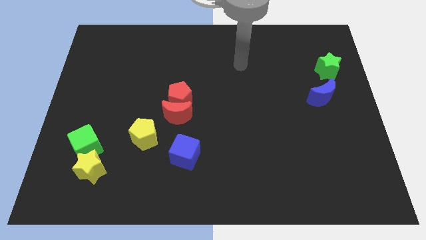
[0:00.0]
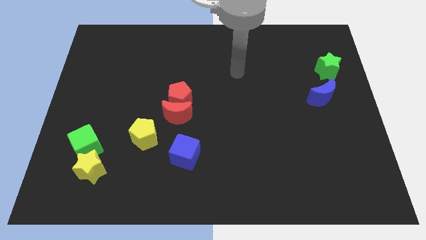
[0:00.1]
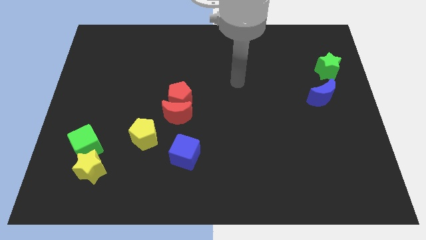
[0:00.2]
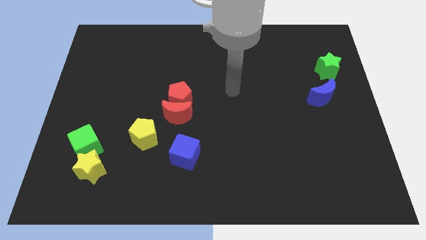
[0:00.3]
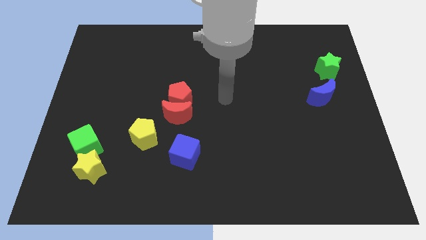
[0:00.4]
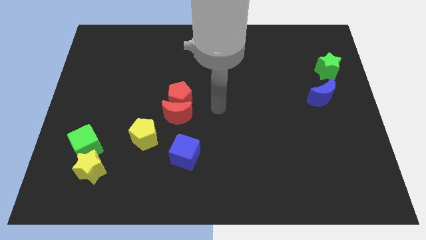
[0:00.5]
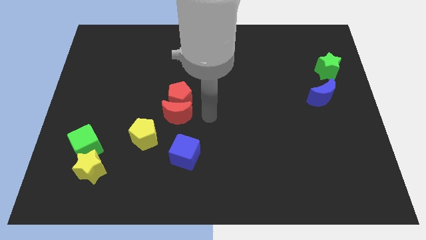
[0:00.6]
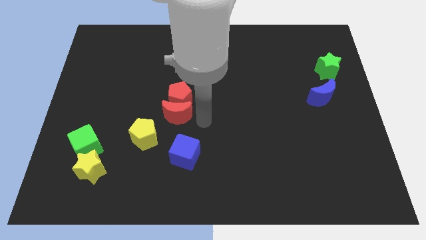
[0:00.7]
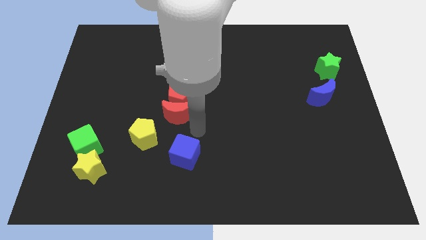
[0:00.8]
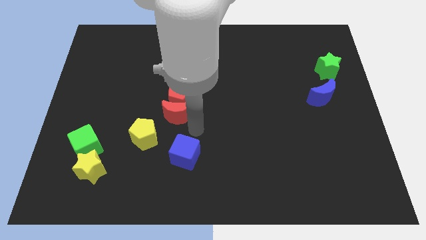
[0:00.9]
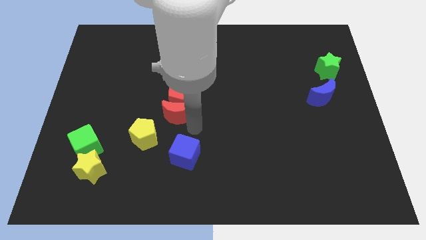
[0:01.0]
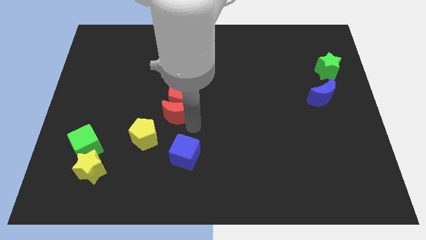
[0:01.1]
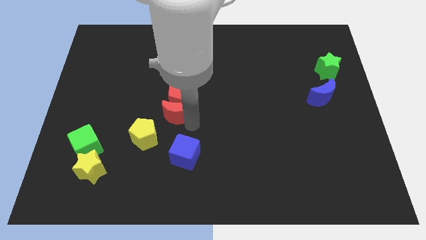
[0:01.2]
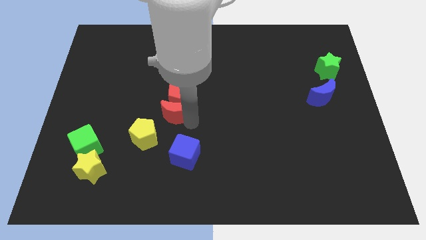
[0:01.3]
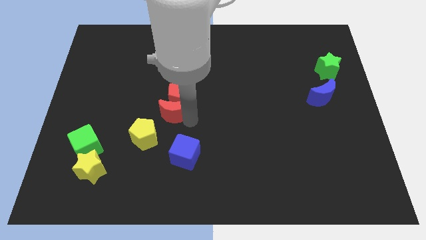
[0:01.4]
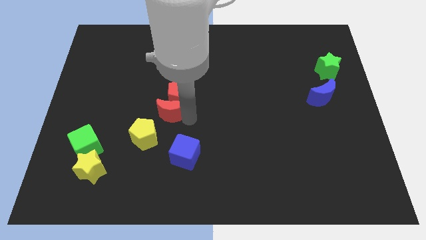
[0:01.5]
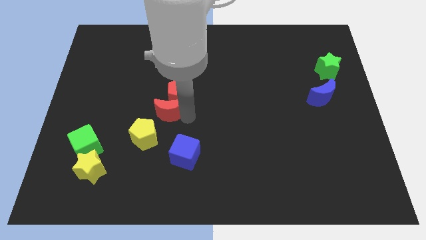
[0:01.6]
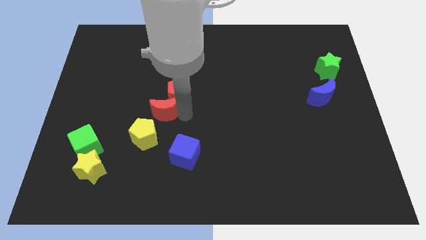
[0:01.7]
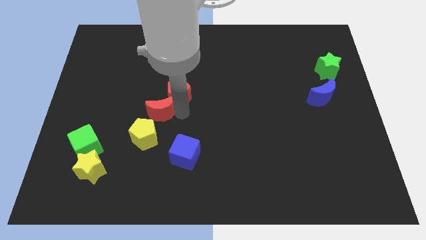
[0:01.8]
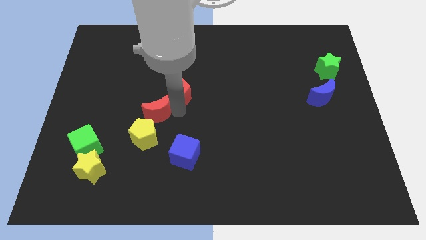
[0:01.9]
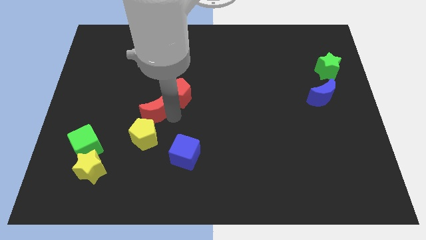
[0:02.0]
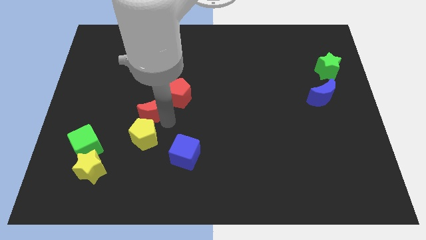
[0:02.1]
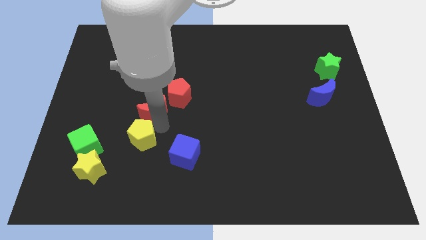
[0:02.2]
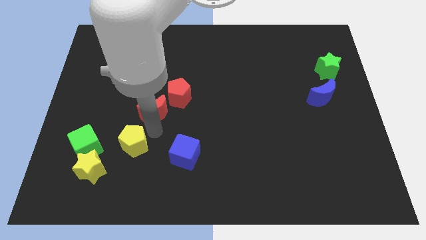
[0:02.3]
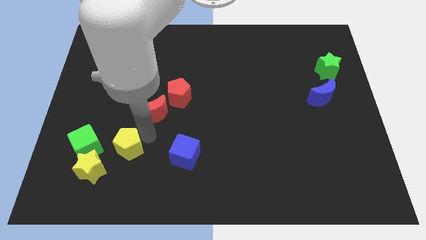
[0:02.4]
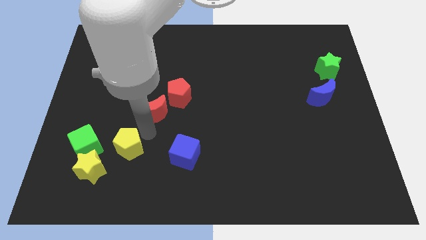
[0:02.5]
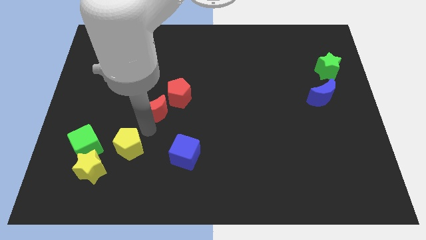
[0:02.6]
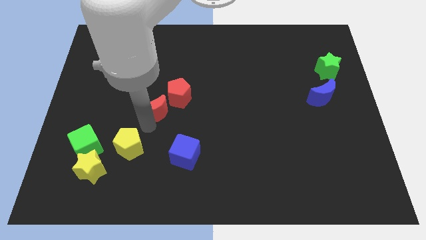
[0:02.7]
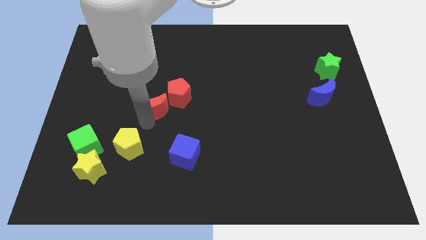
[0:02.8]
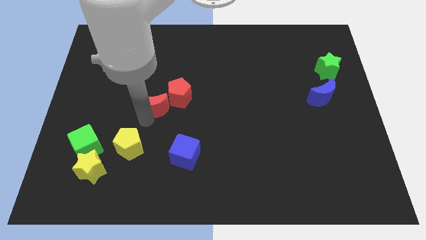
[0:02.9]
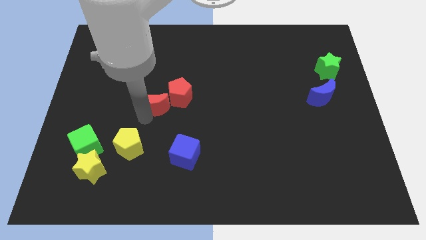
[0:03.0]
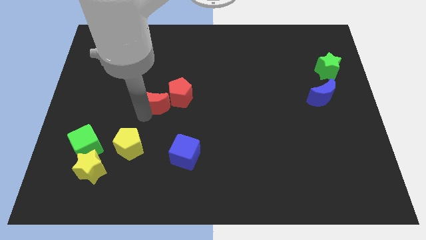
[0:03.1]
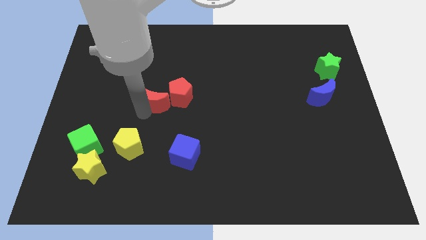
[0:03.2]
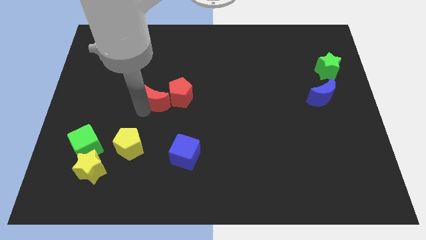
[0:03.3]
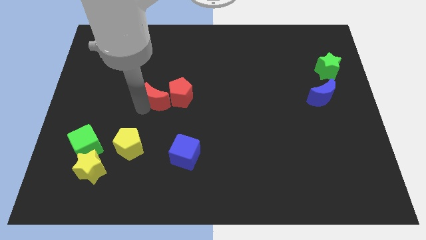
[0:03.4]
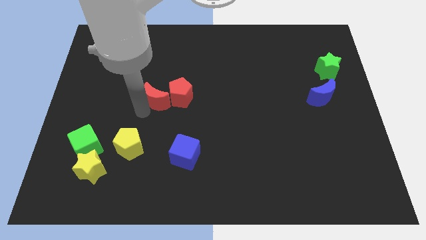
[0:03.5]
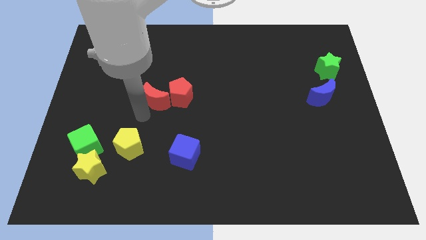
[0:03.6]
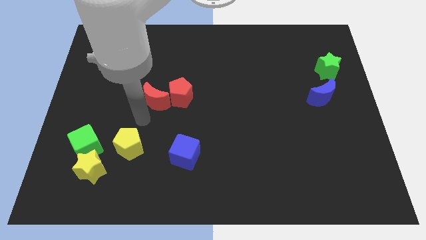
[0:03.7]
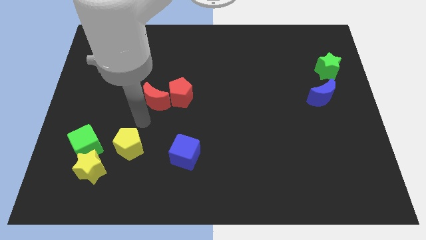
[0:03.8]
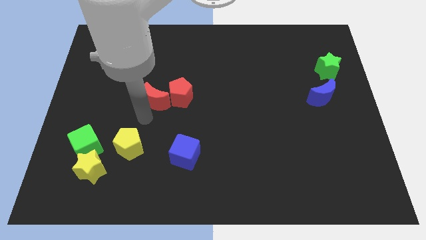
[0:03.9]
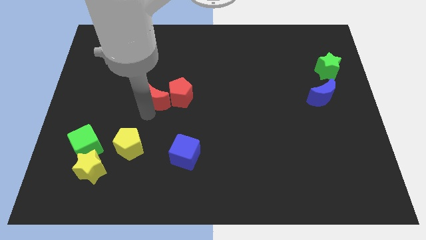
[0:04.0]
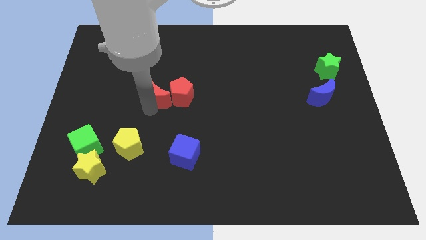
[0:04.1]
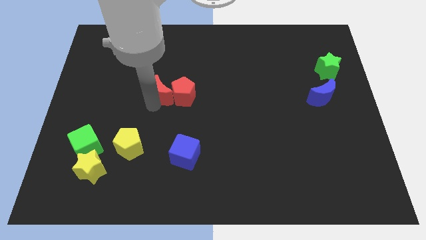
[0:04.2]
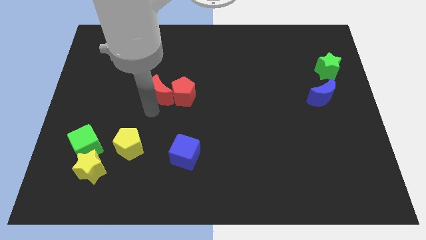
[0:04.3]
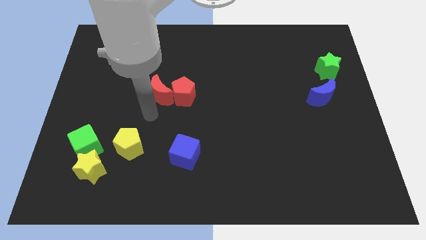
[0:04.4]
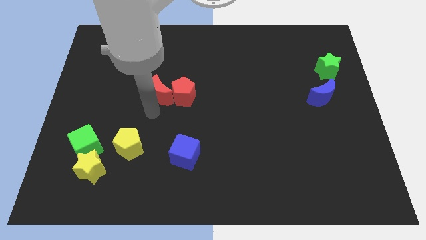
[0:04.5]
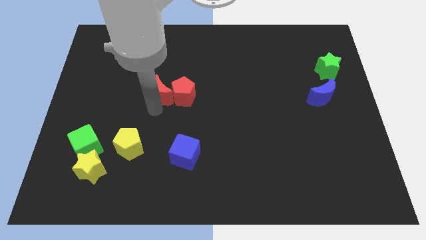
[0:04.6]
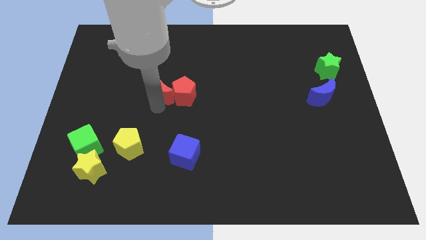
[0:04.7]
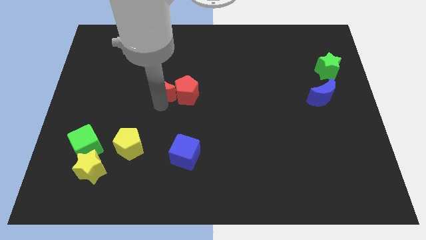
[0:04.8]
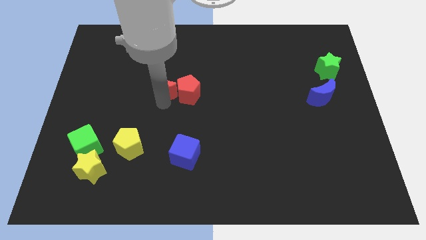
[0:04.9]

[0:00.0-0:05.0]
push the red moon up a little

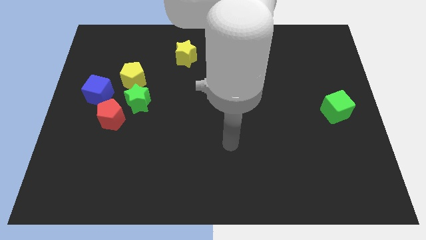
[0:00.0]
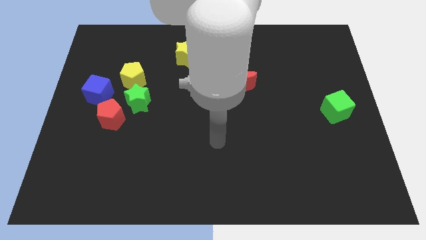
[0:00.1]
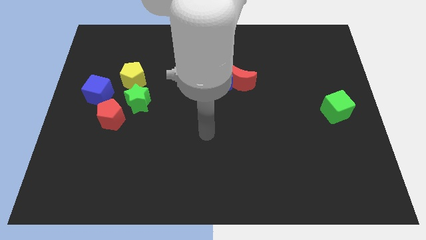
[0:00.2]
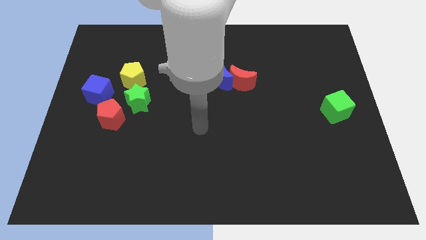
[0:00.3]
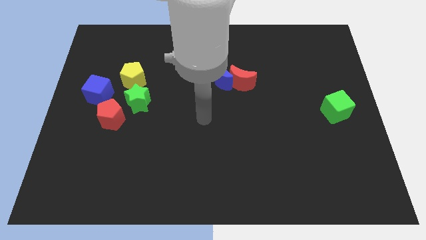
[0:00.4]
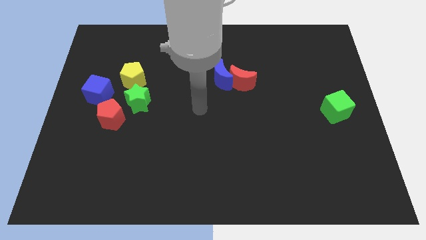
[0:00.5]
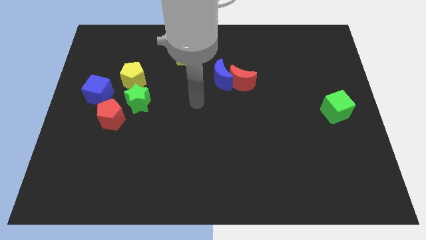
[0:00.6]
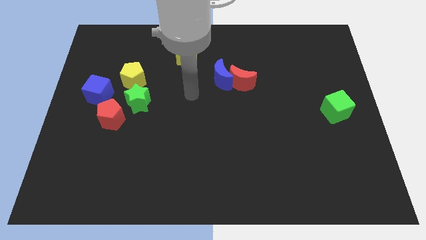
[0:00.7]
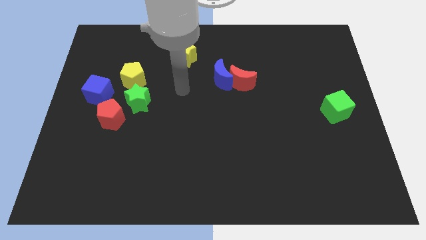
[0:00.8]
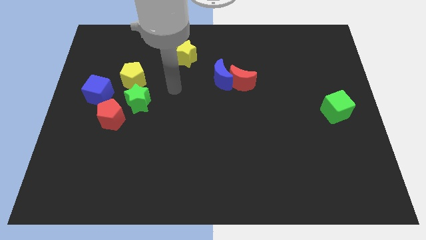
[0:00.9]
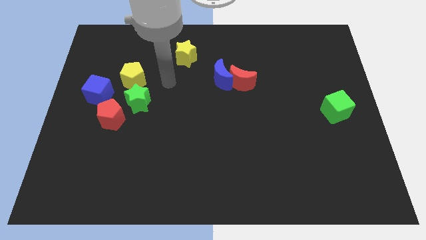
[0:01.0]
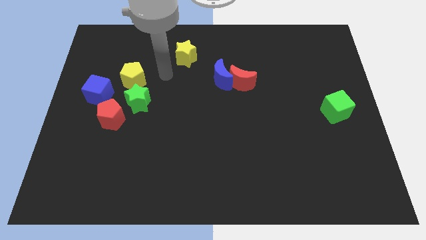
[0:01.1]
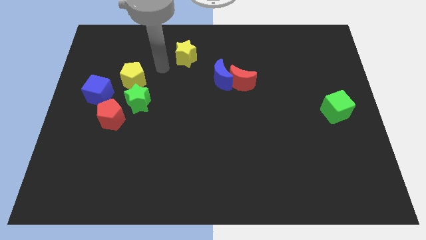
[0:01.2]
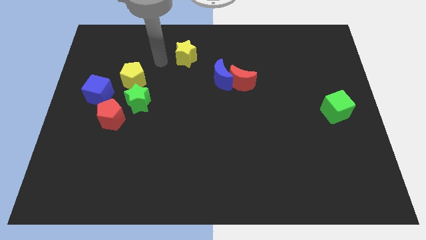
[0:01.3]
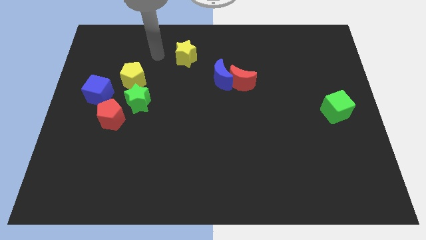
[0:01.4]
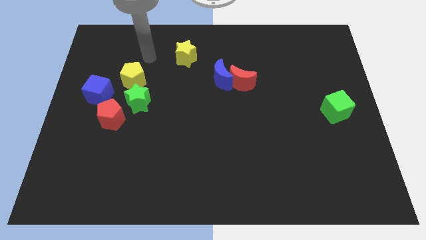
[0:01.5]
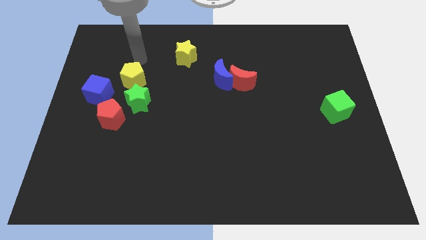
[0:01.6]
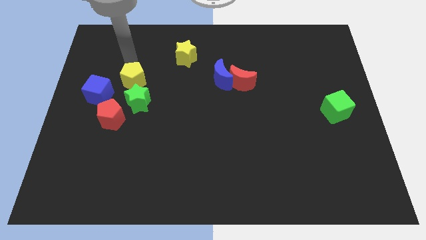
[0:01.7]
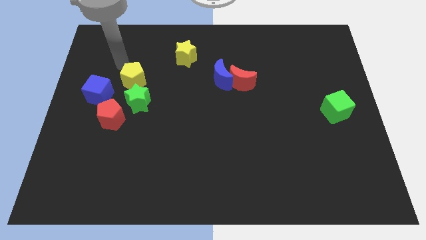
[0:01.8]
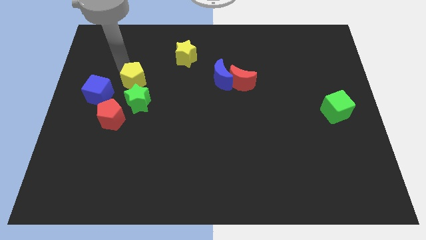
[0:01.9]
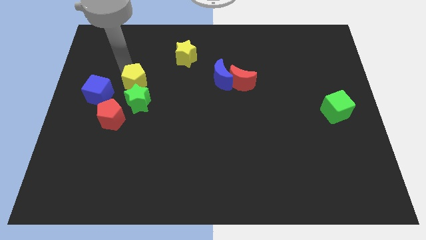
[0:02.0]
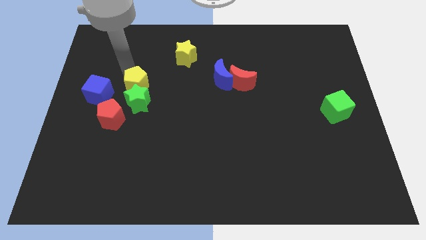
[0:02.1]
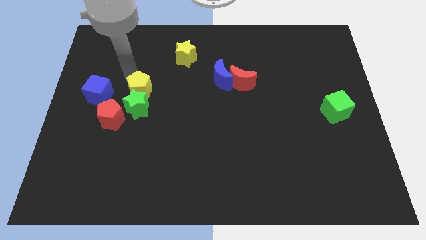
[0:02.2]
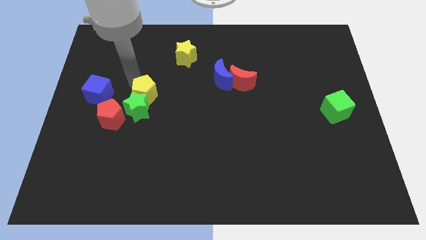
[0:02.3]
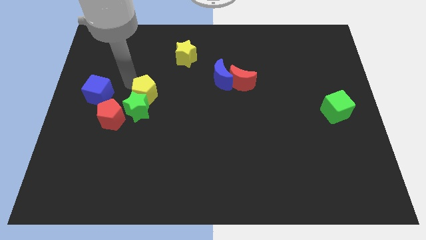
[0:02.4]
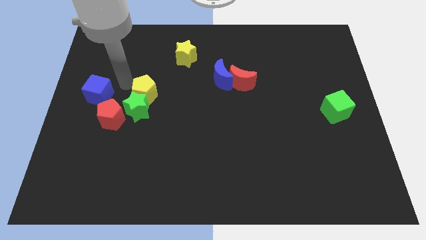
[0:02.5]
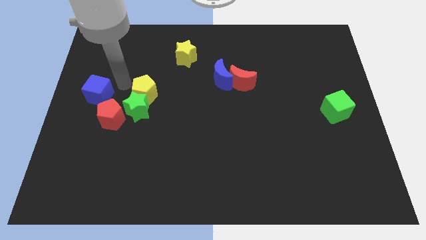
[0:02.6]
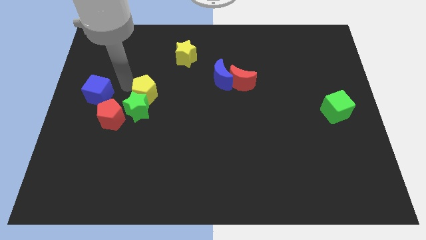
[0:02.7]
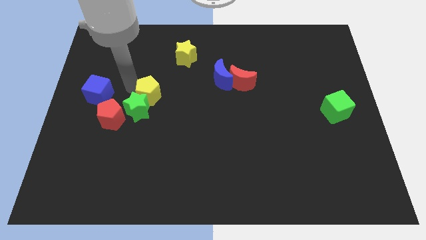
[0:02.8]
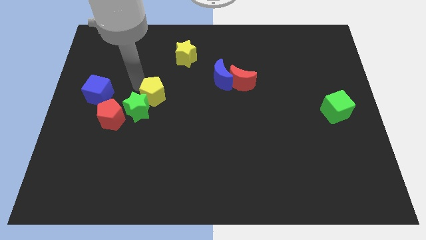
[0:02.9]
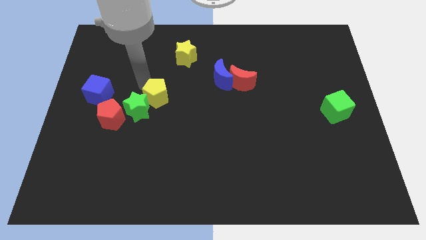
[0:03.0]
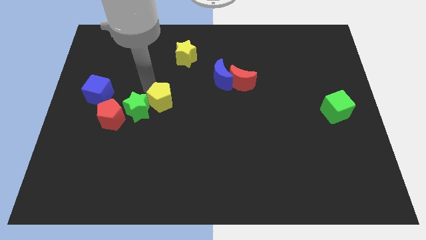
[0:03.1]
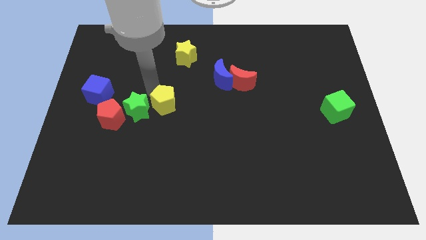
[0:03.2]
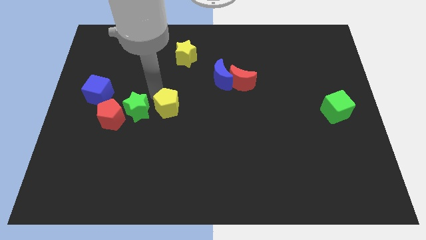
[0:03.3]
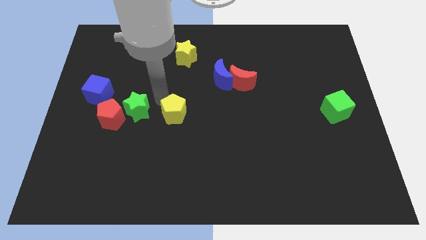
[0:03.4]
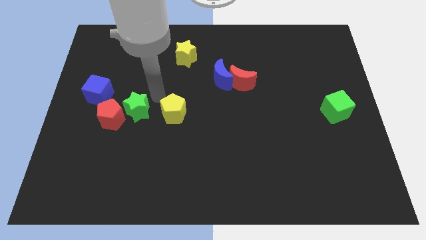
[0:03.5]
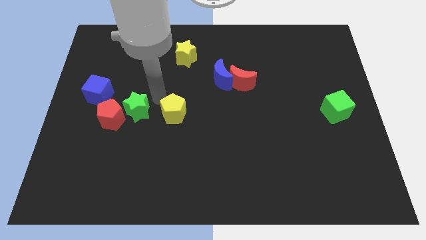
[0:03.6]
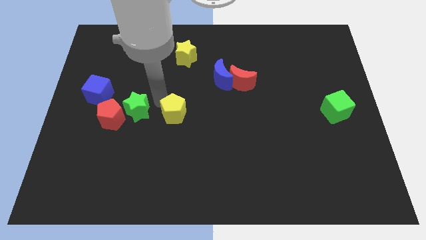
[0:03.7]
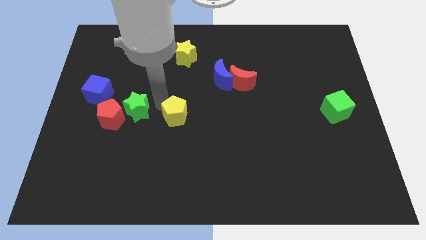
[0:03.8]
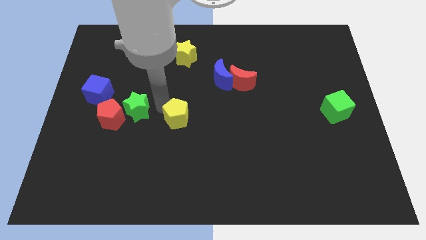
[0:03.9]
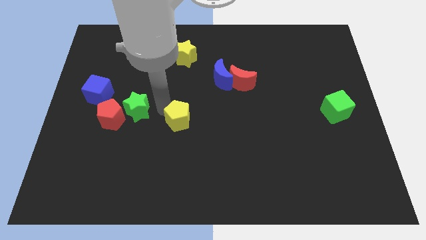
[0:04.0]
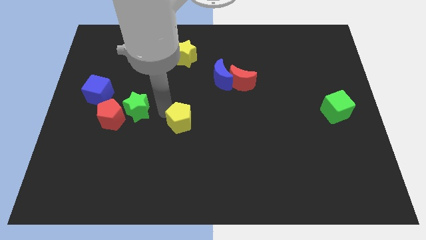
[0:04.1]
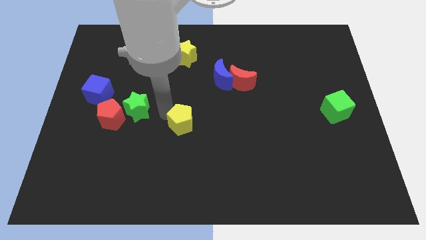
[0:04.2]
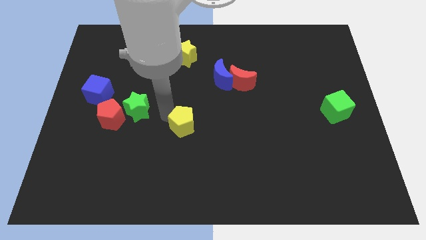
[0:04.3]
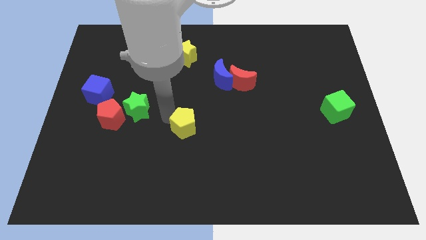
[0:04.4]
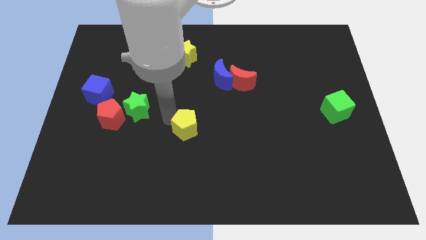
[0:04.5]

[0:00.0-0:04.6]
push the yellow pentagon downwards and to the right diagonally
